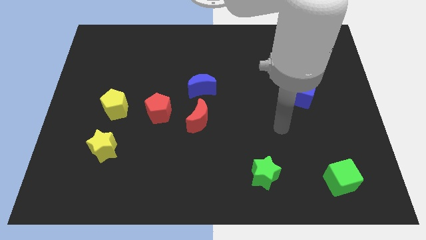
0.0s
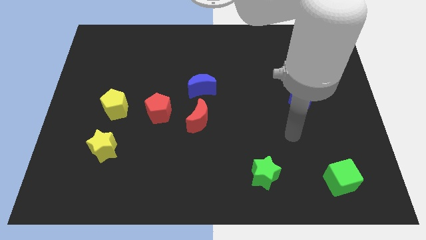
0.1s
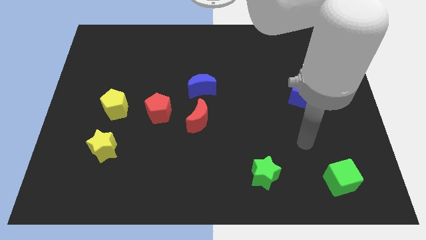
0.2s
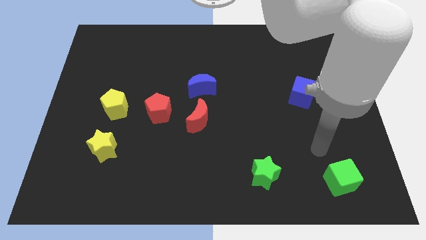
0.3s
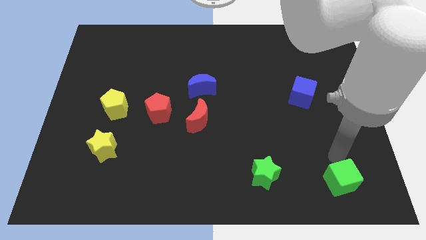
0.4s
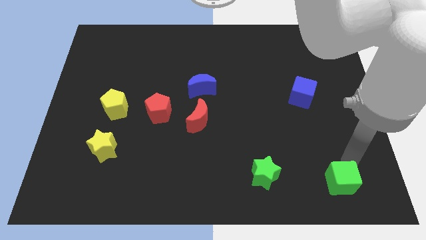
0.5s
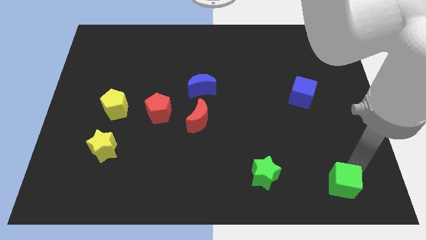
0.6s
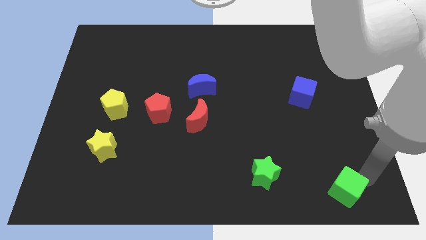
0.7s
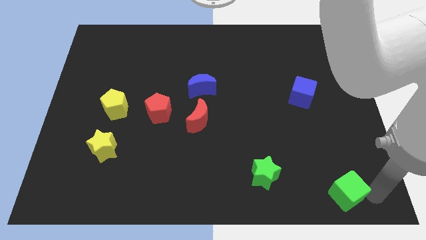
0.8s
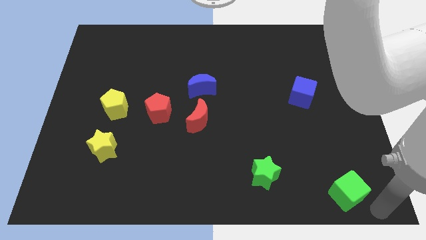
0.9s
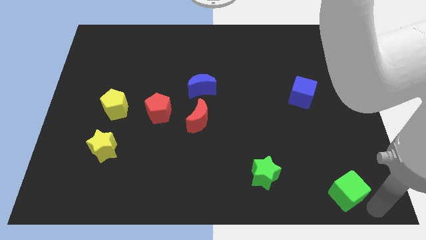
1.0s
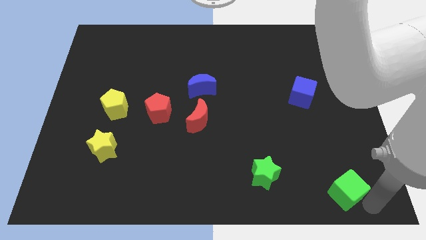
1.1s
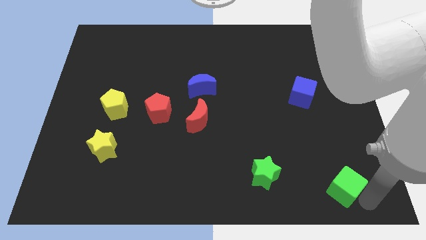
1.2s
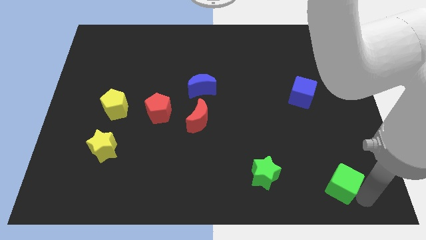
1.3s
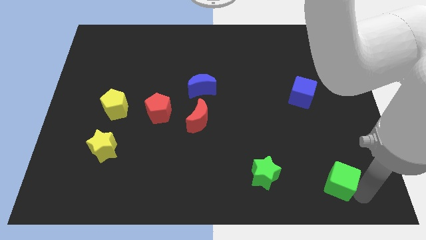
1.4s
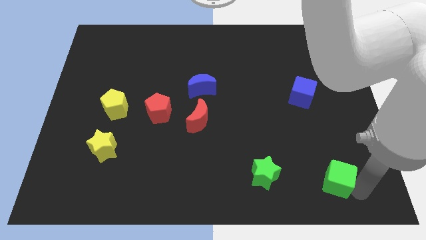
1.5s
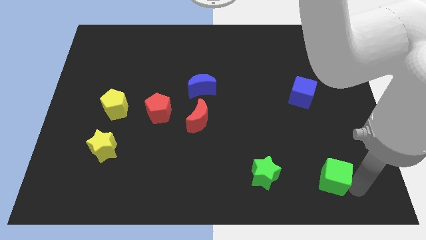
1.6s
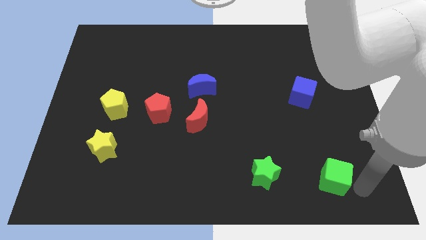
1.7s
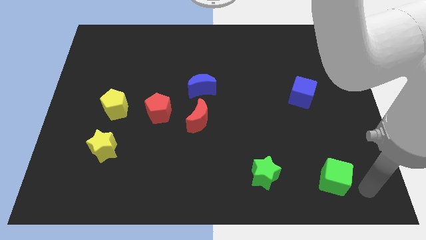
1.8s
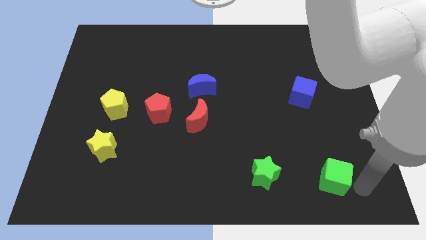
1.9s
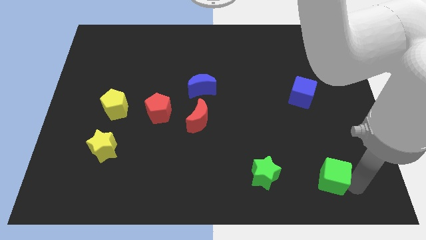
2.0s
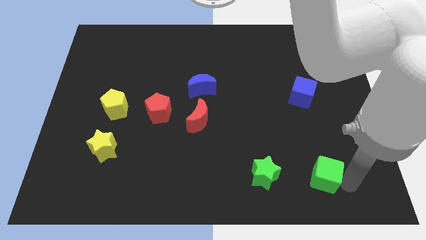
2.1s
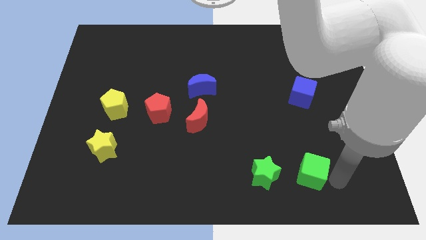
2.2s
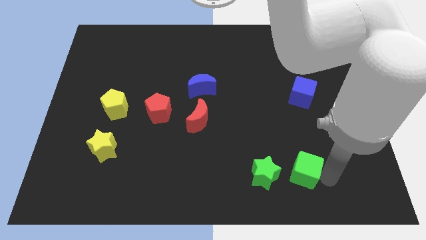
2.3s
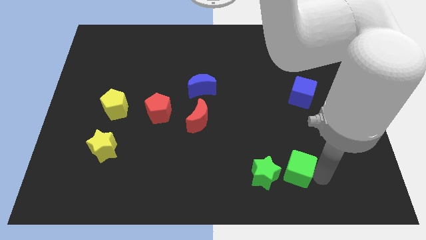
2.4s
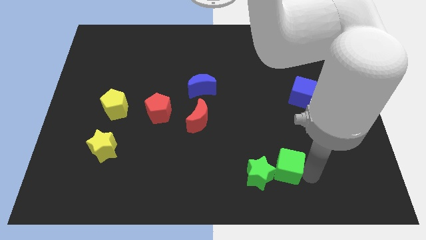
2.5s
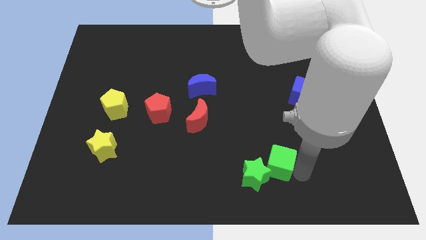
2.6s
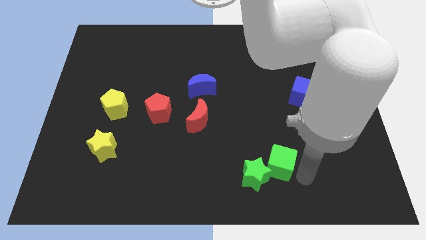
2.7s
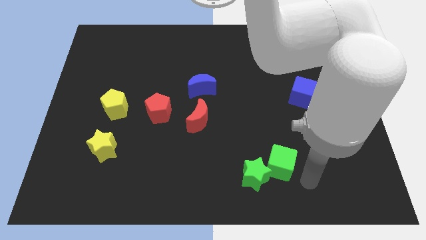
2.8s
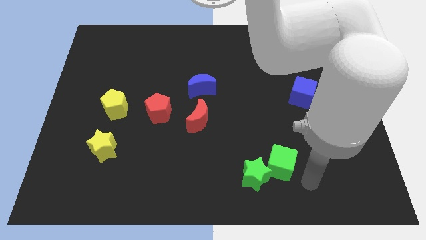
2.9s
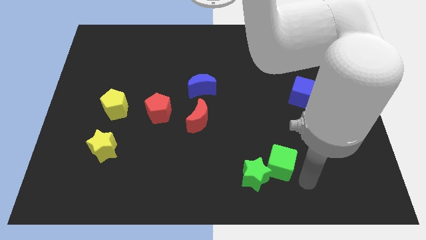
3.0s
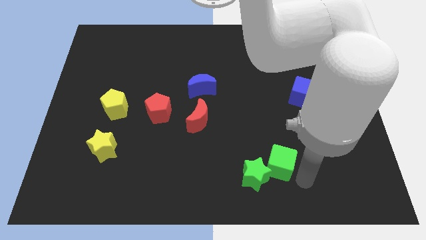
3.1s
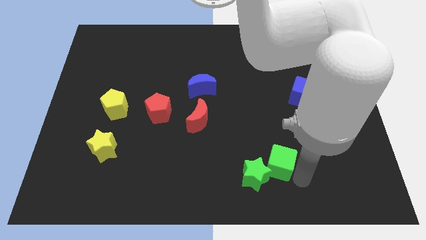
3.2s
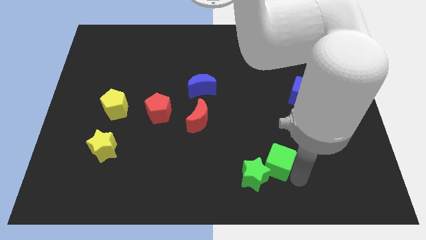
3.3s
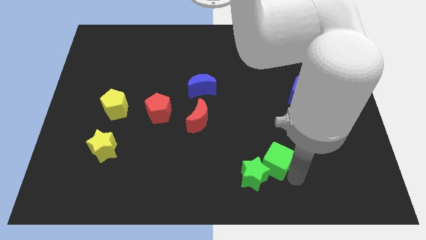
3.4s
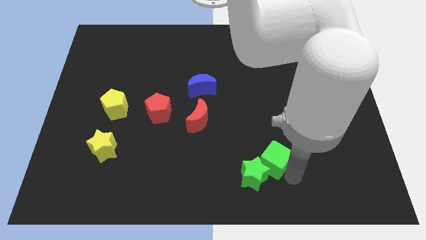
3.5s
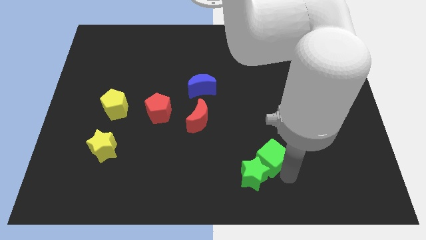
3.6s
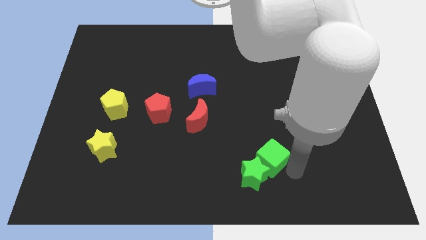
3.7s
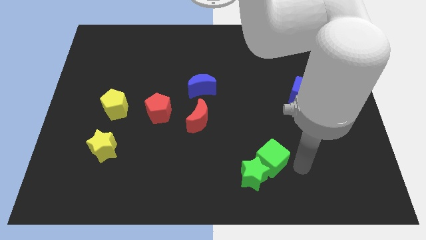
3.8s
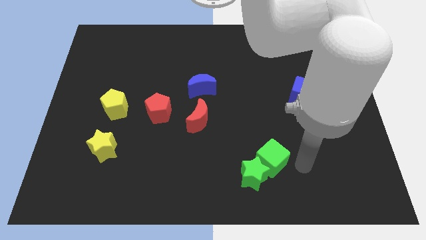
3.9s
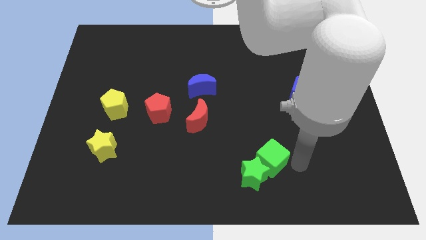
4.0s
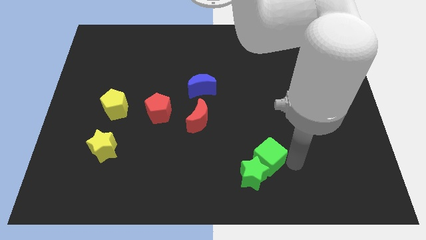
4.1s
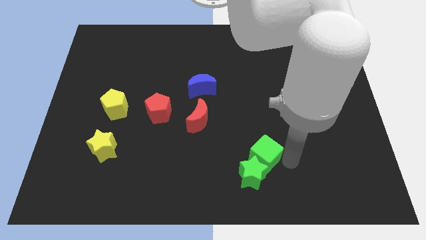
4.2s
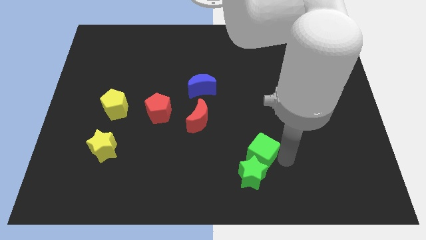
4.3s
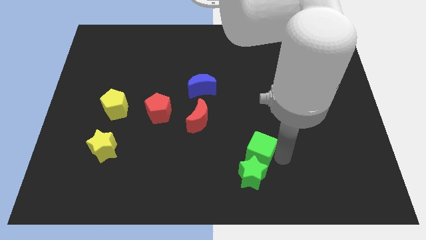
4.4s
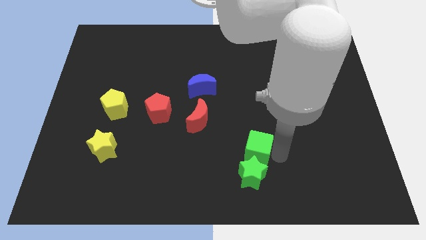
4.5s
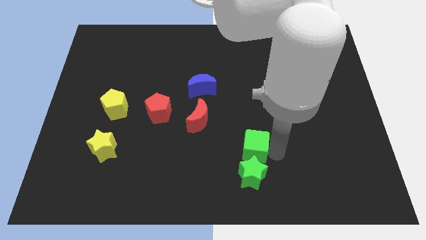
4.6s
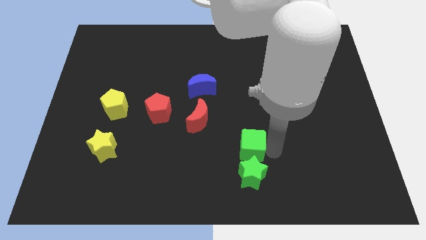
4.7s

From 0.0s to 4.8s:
put the green cube to the top left side of the green star

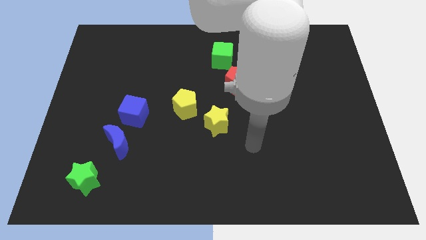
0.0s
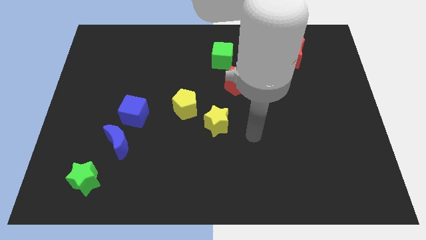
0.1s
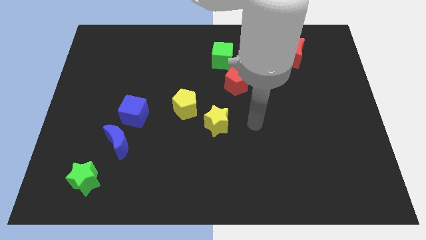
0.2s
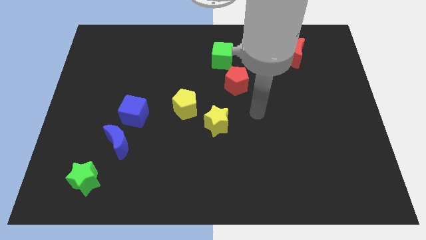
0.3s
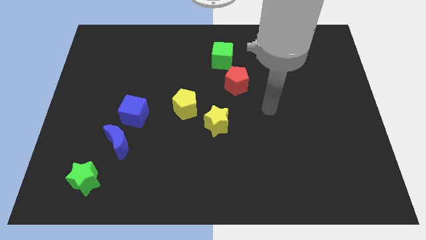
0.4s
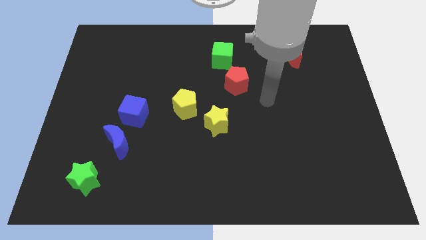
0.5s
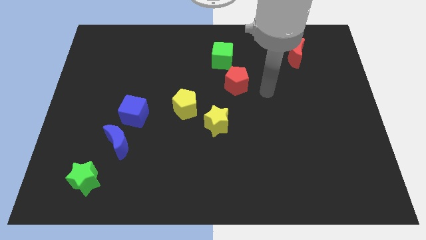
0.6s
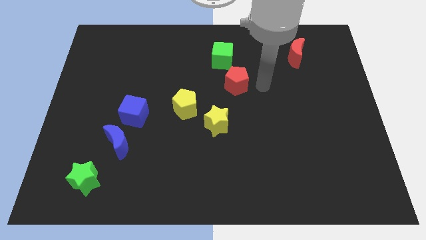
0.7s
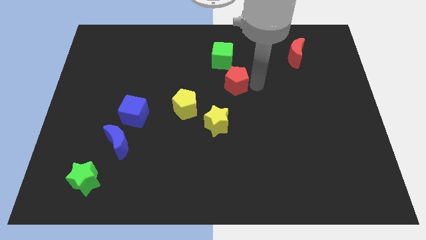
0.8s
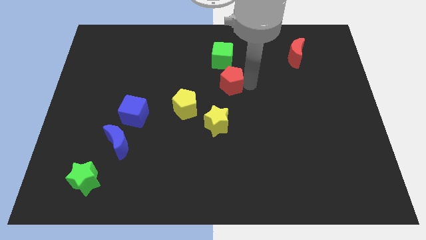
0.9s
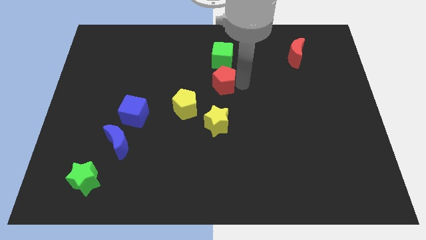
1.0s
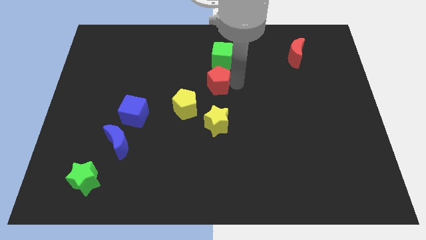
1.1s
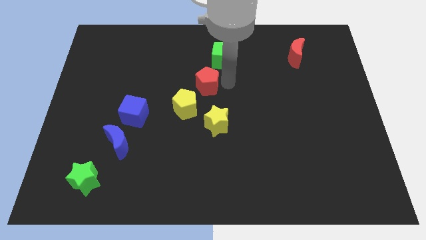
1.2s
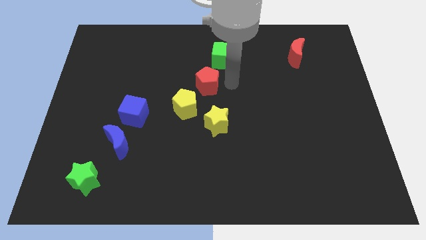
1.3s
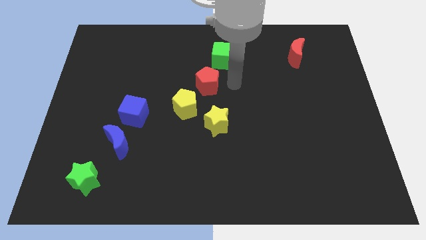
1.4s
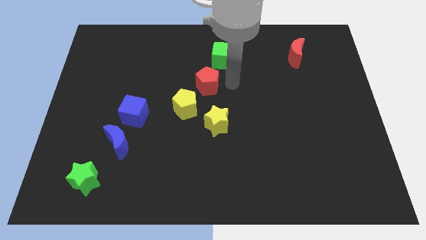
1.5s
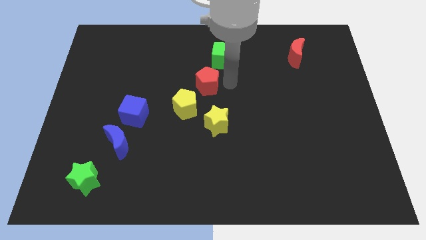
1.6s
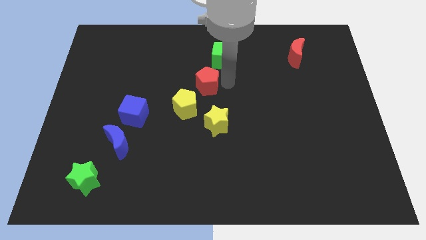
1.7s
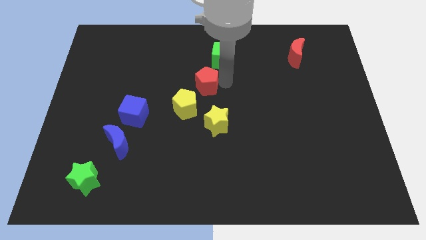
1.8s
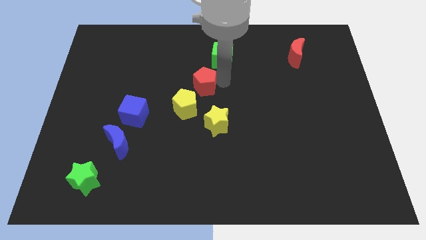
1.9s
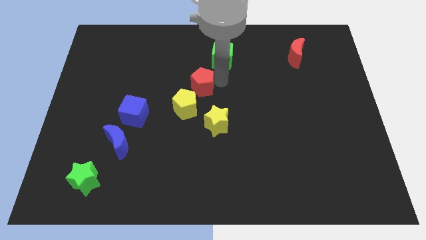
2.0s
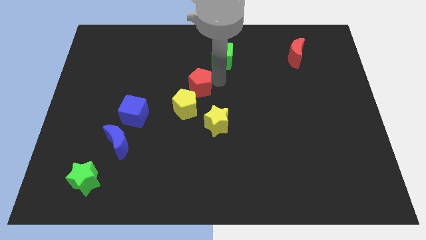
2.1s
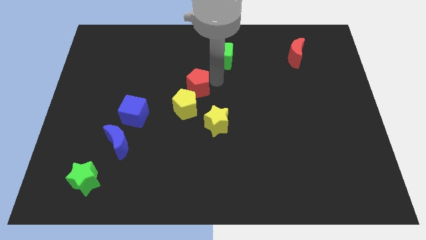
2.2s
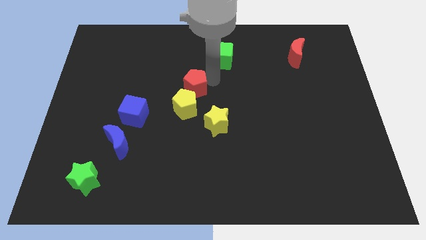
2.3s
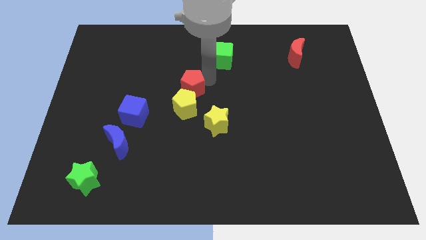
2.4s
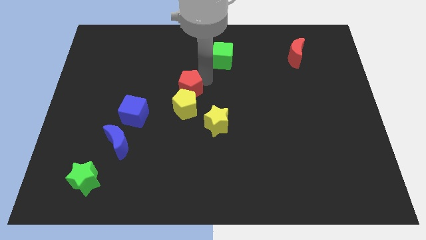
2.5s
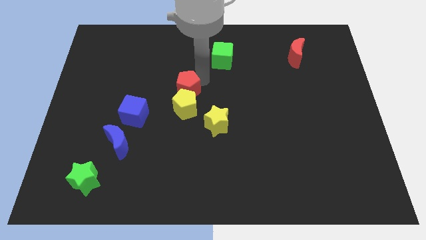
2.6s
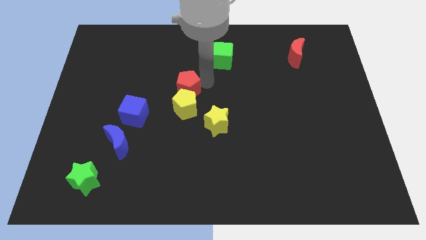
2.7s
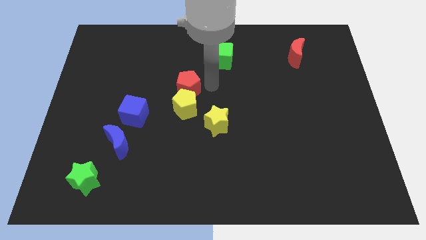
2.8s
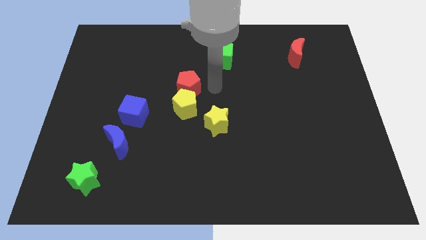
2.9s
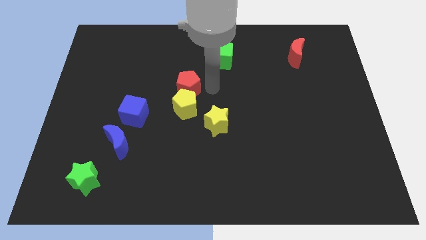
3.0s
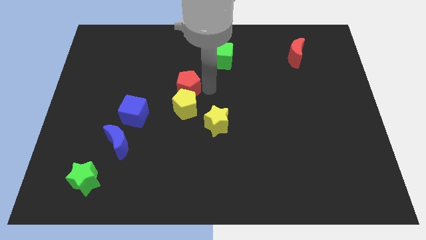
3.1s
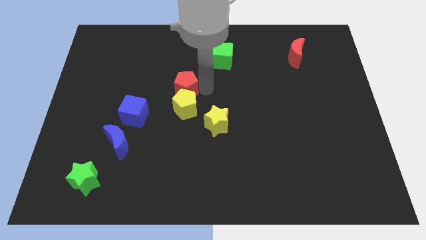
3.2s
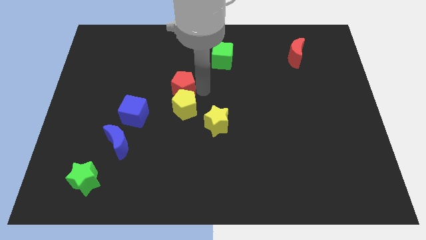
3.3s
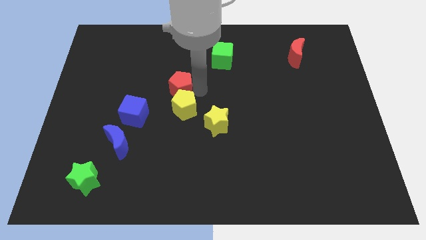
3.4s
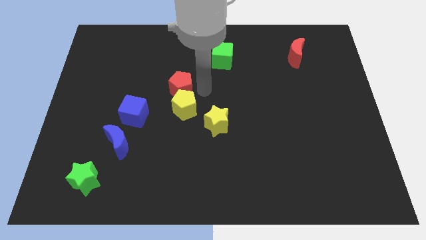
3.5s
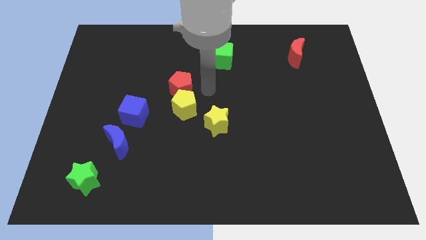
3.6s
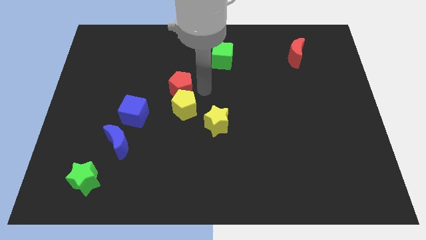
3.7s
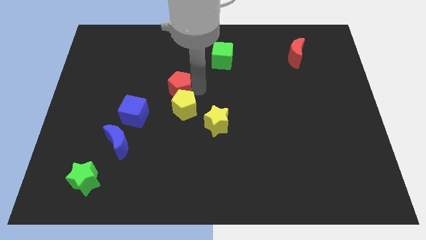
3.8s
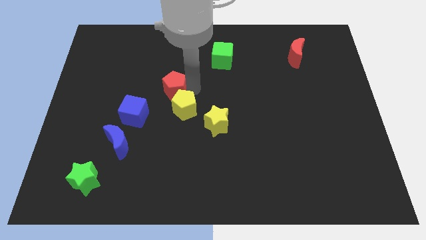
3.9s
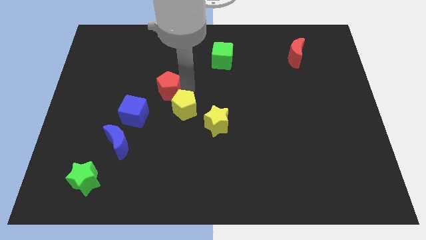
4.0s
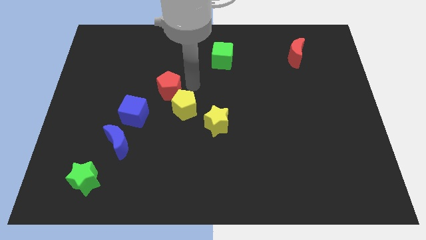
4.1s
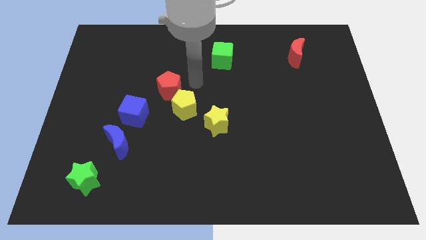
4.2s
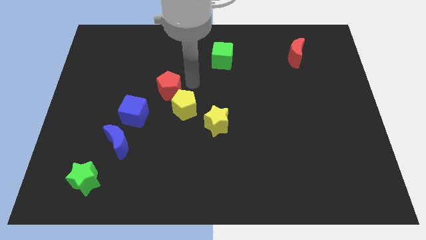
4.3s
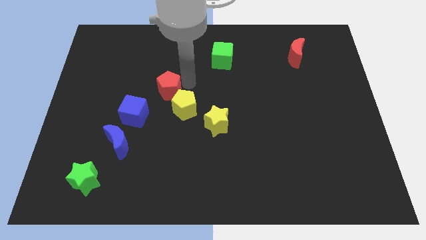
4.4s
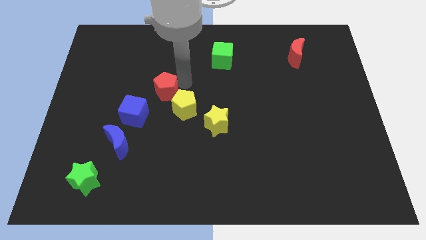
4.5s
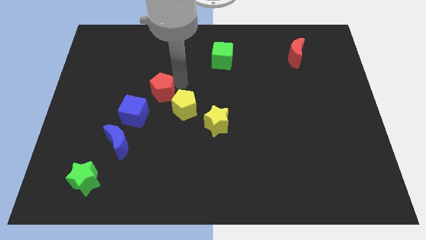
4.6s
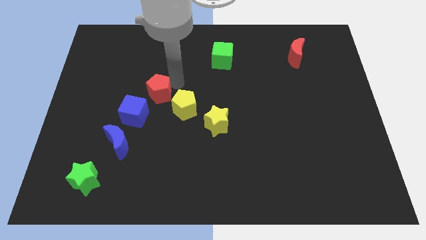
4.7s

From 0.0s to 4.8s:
slide the red pentagon just left of the yellow pentagon
